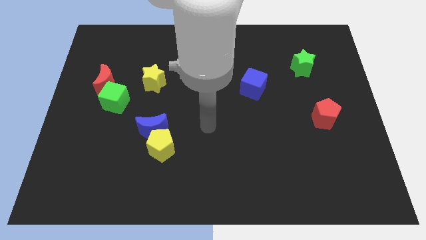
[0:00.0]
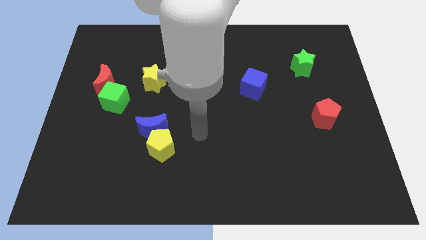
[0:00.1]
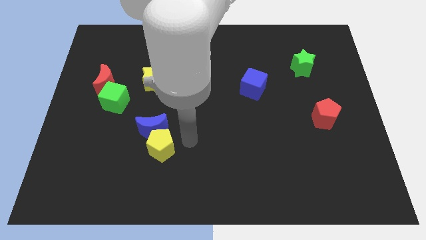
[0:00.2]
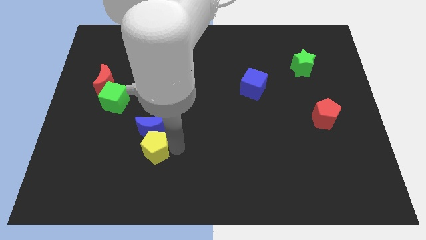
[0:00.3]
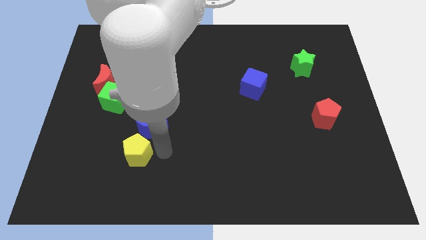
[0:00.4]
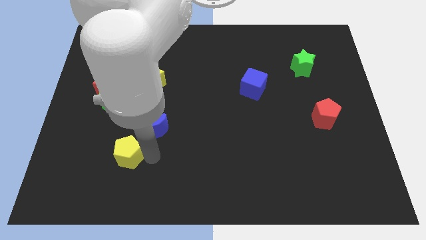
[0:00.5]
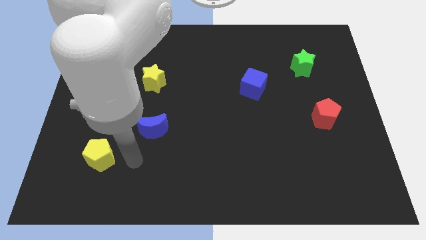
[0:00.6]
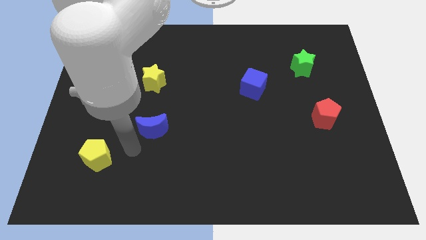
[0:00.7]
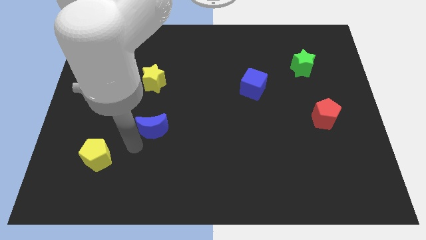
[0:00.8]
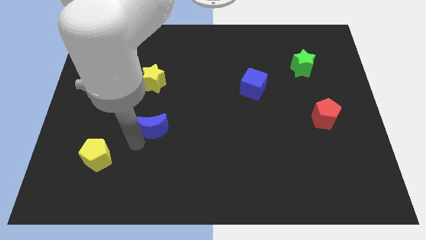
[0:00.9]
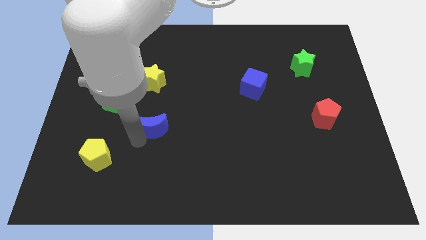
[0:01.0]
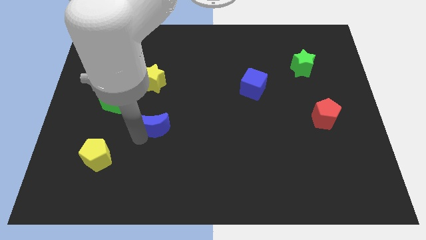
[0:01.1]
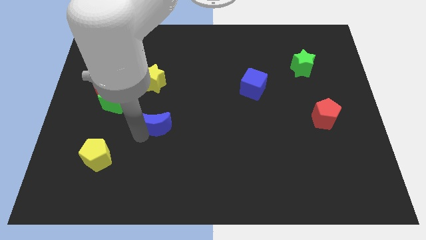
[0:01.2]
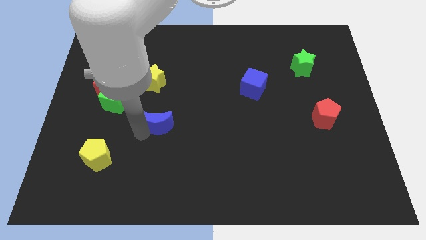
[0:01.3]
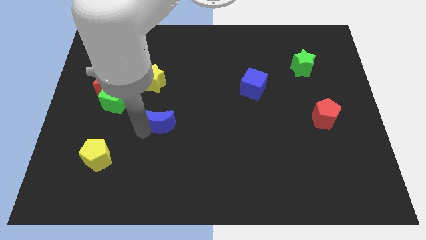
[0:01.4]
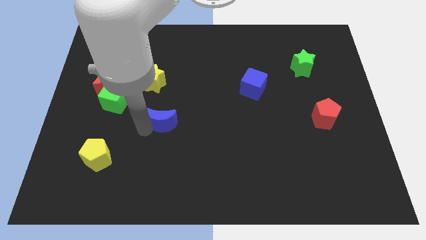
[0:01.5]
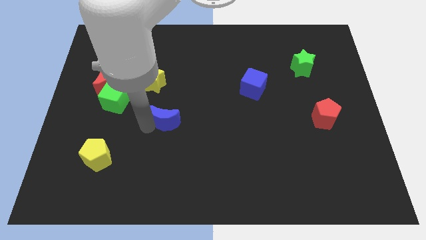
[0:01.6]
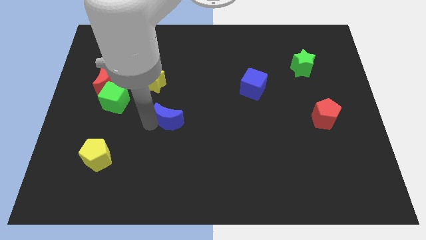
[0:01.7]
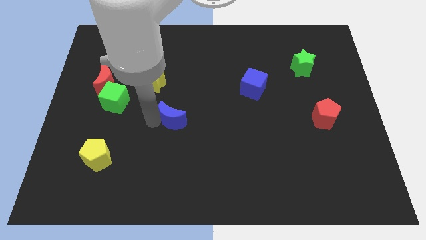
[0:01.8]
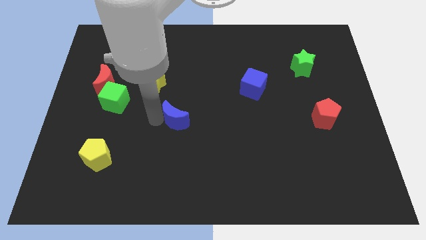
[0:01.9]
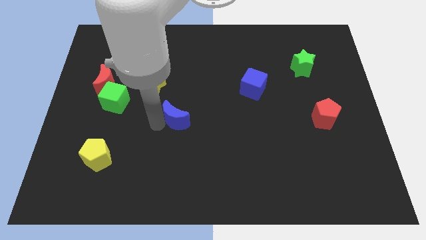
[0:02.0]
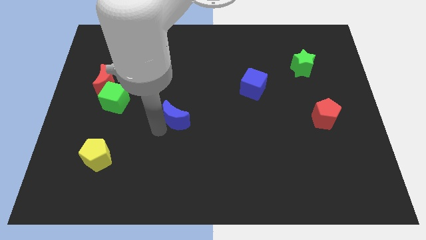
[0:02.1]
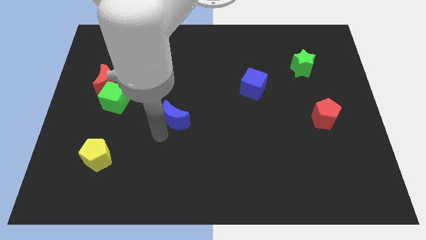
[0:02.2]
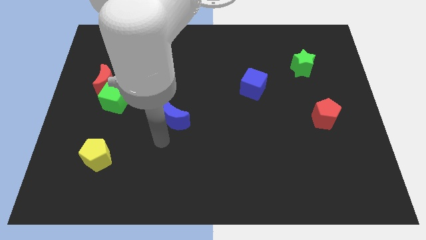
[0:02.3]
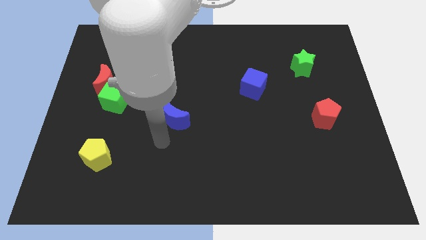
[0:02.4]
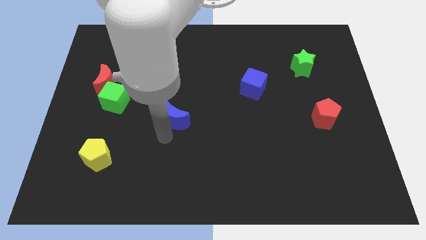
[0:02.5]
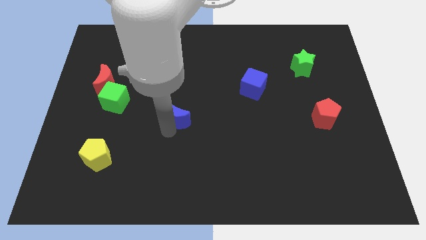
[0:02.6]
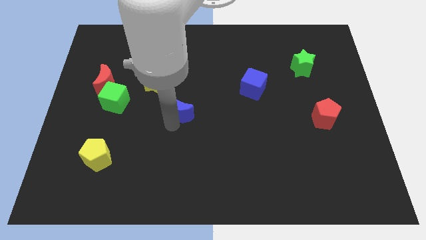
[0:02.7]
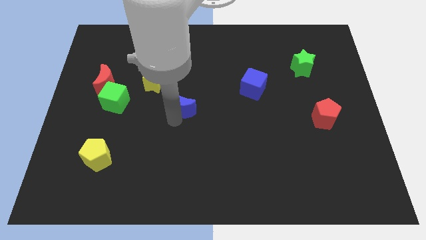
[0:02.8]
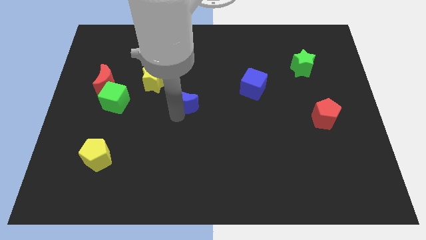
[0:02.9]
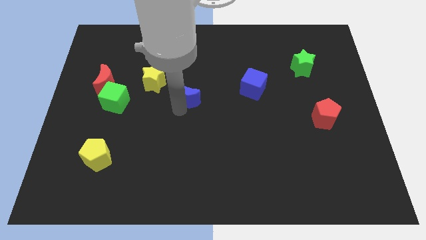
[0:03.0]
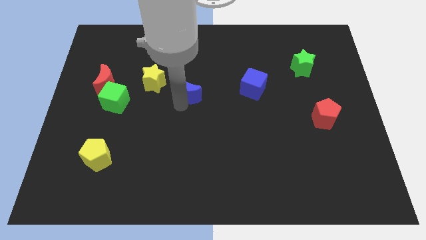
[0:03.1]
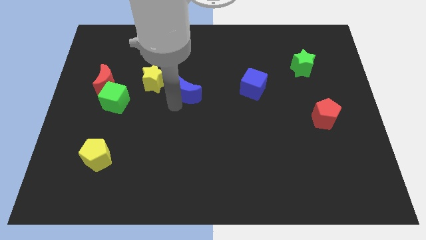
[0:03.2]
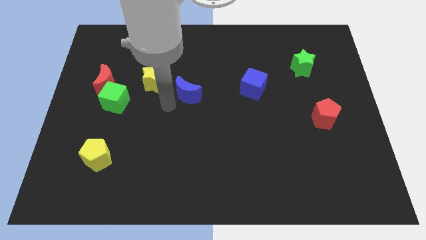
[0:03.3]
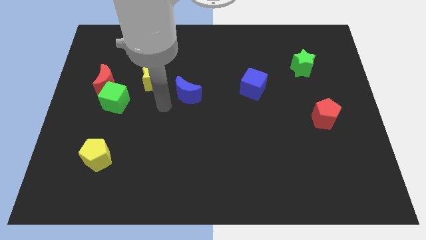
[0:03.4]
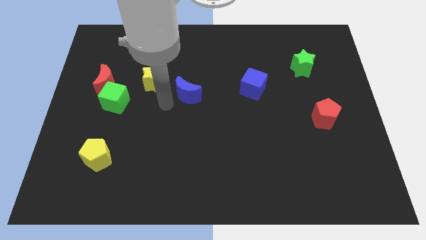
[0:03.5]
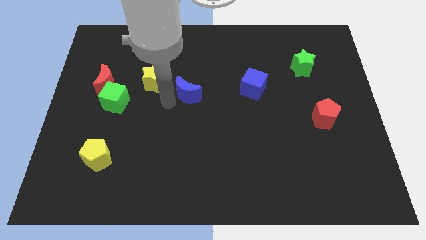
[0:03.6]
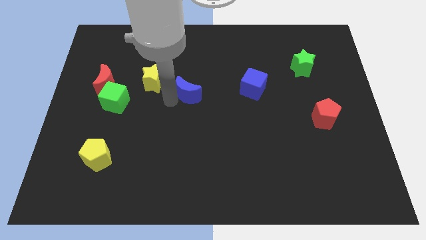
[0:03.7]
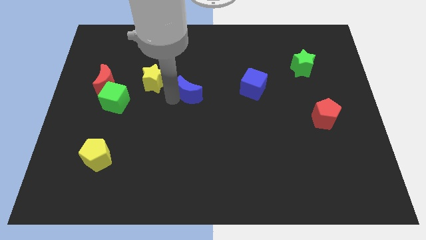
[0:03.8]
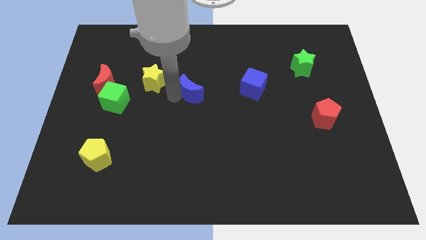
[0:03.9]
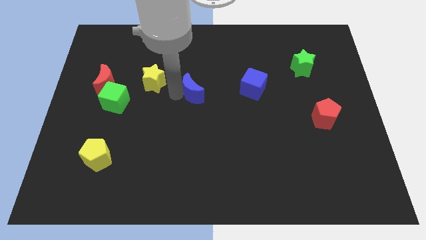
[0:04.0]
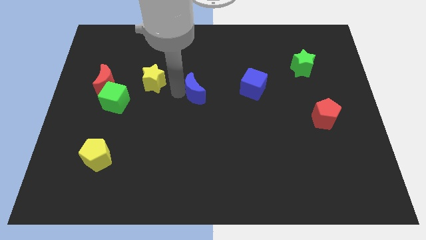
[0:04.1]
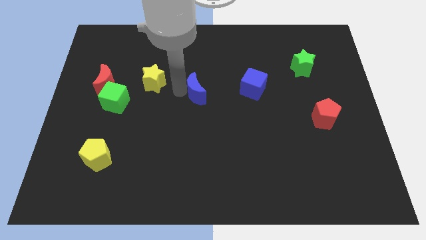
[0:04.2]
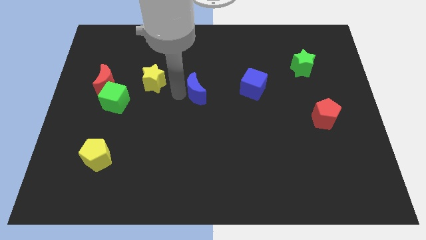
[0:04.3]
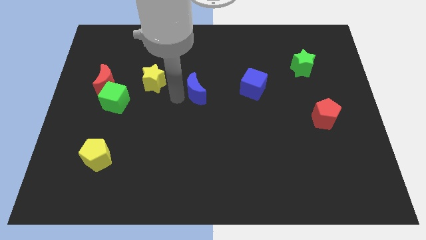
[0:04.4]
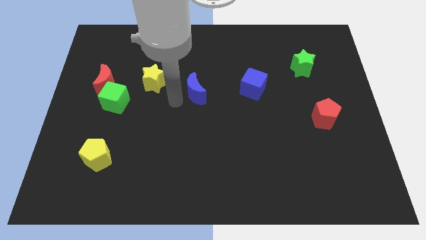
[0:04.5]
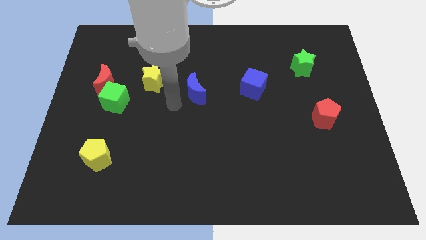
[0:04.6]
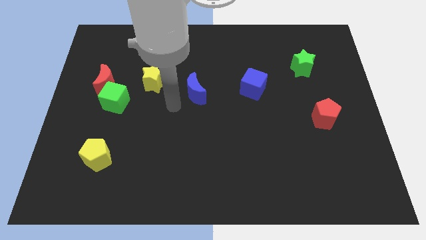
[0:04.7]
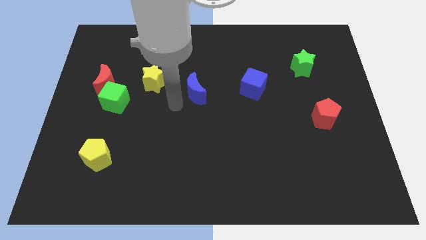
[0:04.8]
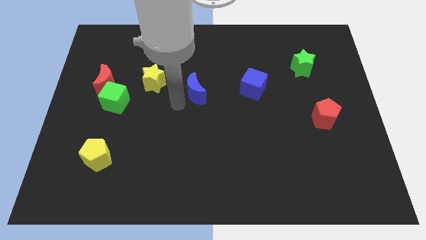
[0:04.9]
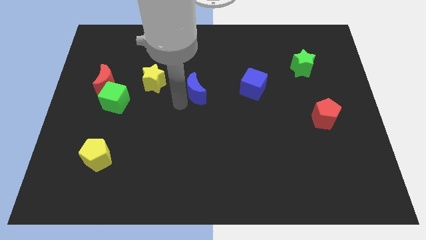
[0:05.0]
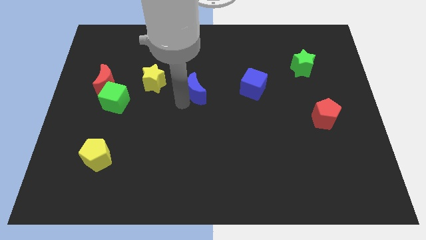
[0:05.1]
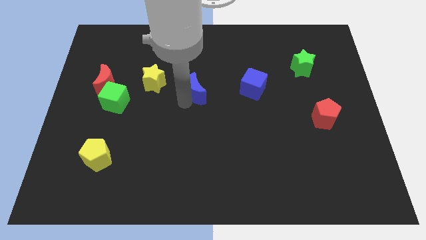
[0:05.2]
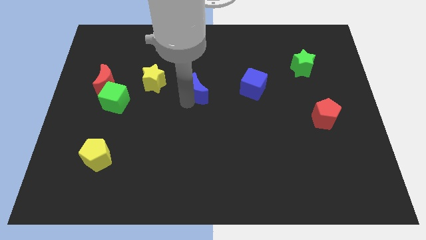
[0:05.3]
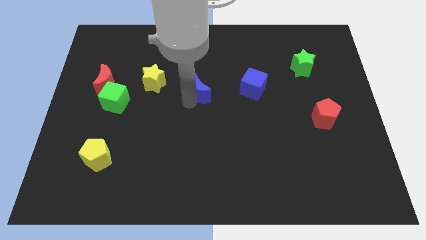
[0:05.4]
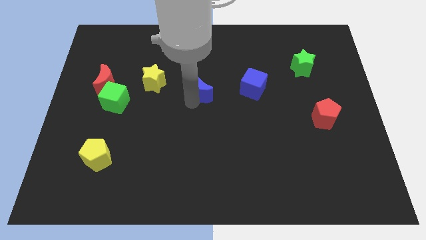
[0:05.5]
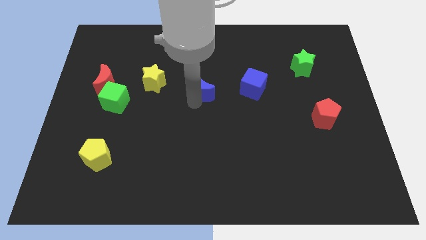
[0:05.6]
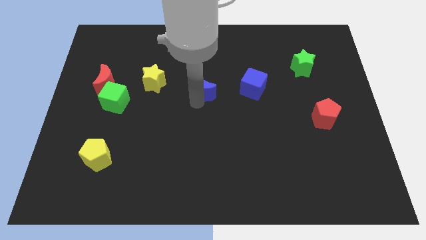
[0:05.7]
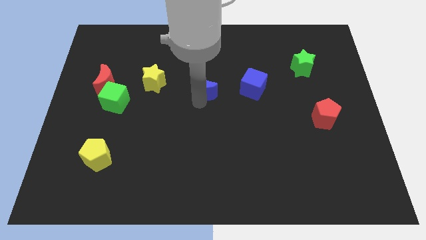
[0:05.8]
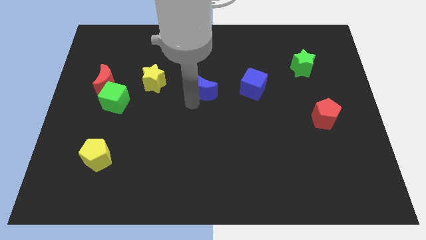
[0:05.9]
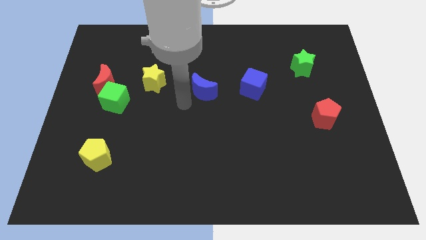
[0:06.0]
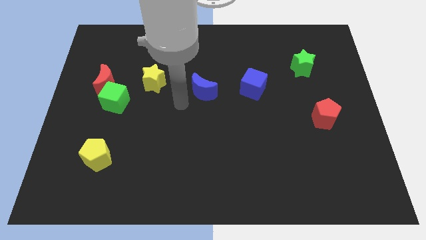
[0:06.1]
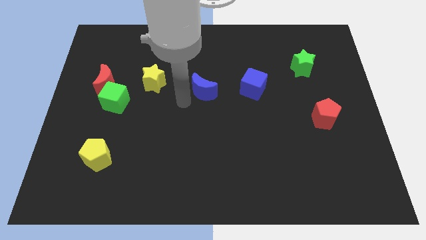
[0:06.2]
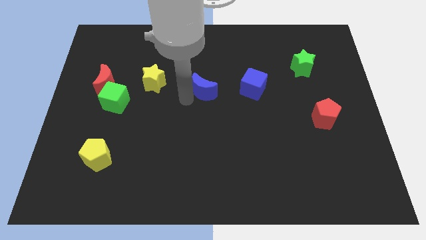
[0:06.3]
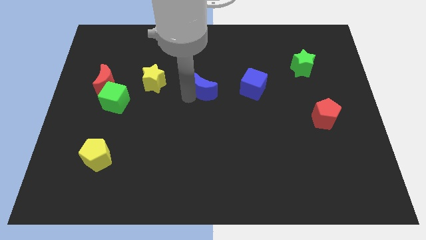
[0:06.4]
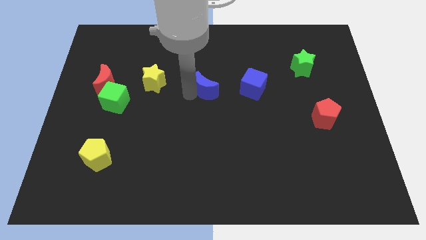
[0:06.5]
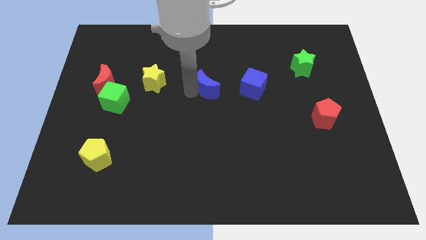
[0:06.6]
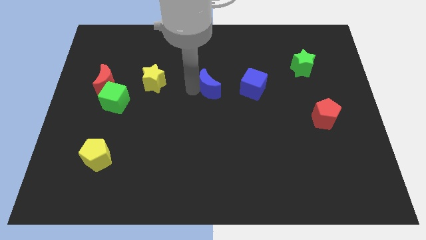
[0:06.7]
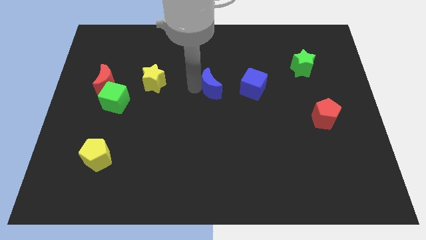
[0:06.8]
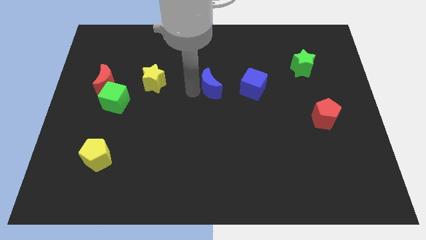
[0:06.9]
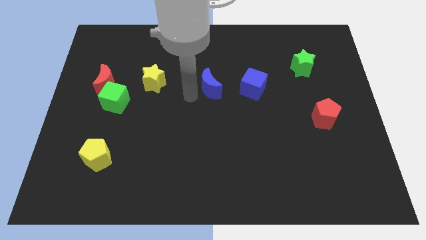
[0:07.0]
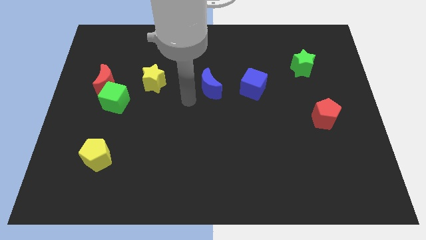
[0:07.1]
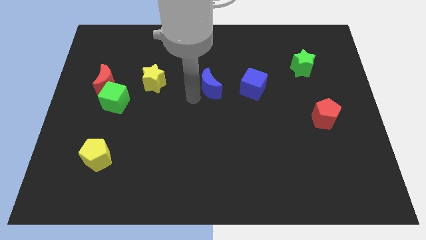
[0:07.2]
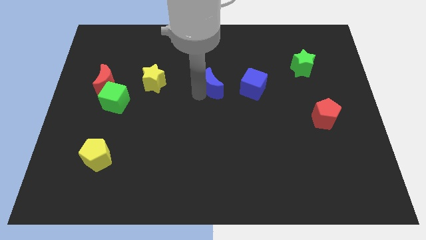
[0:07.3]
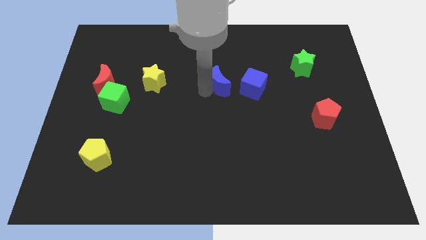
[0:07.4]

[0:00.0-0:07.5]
slide the blue moon up and then right

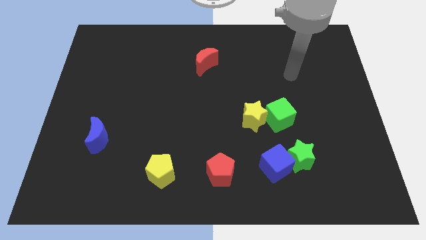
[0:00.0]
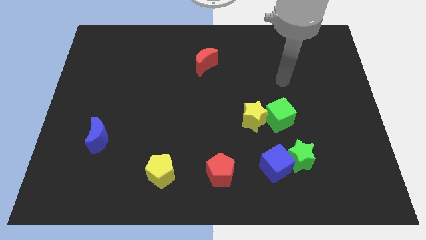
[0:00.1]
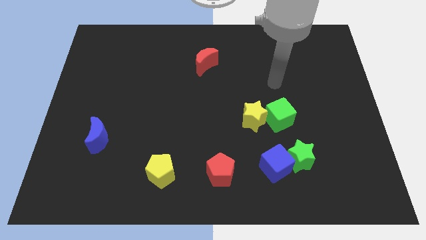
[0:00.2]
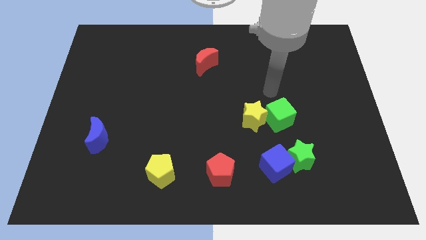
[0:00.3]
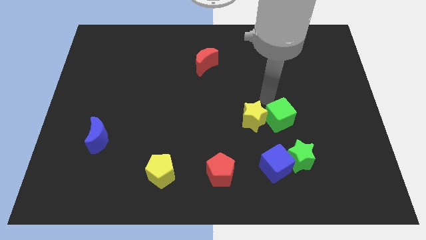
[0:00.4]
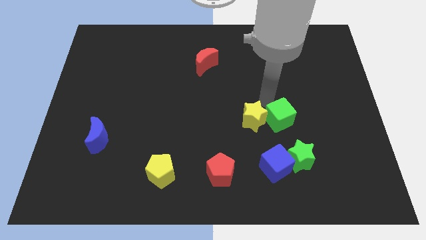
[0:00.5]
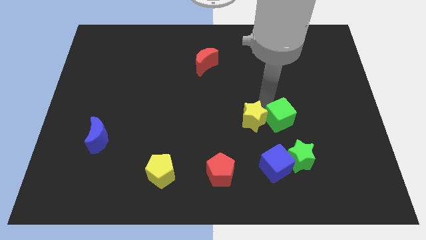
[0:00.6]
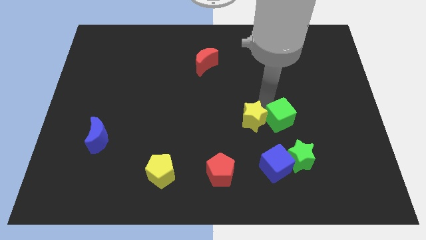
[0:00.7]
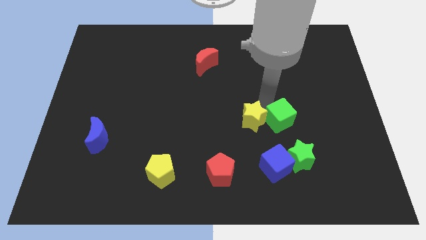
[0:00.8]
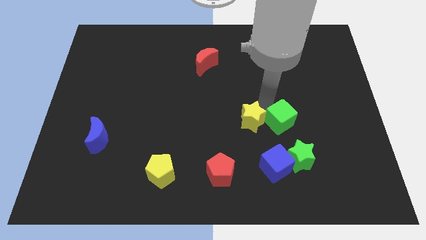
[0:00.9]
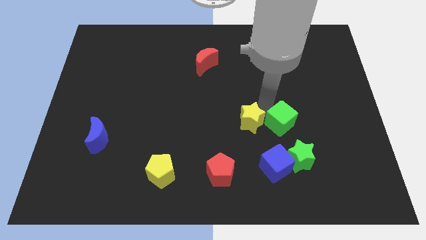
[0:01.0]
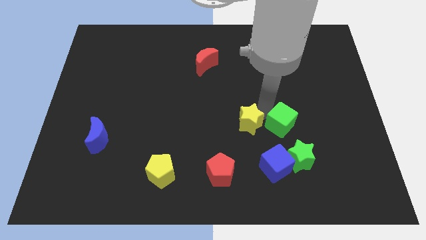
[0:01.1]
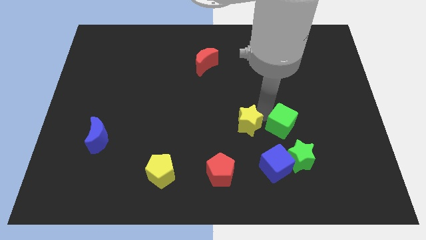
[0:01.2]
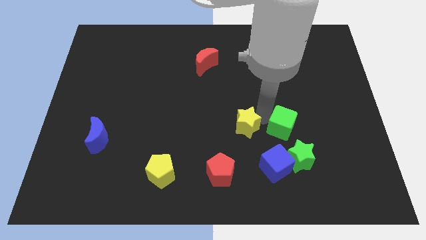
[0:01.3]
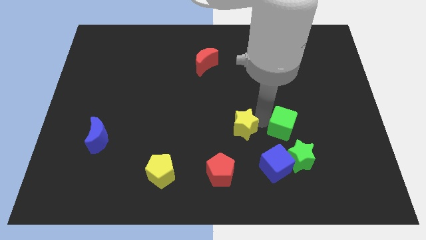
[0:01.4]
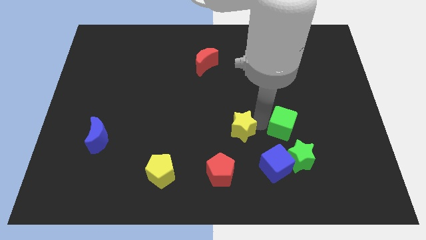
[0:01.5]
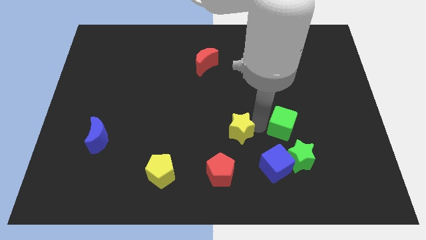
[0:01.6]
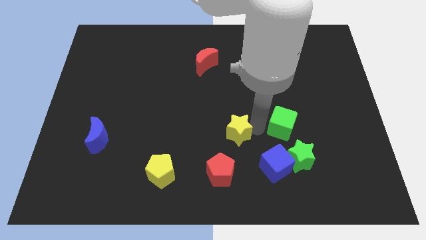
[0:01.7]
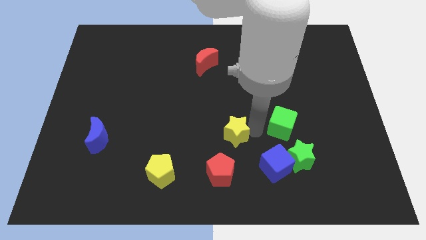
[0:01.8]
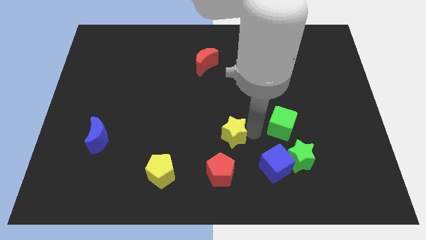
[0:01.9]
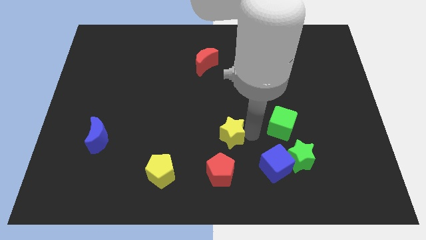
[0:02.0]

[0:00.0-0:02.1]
slide the yellow star diagonally down and left a little
